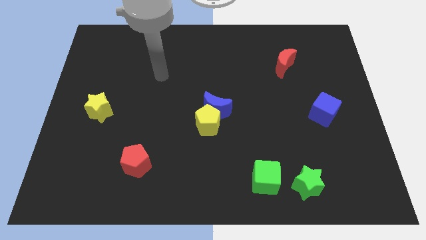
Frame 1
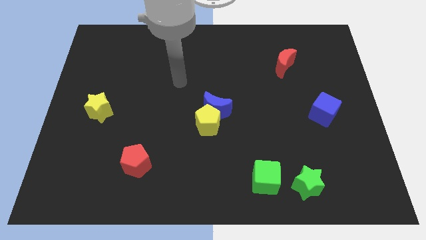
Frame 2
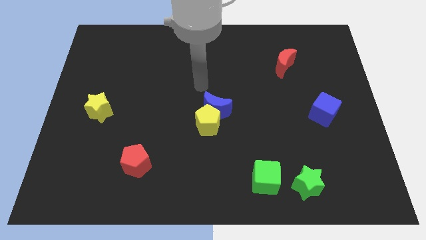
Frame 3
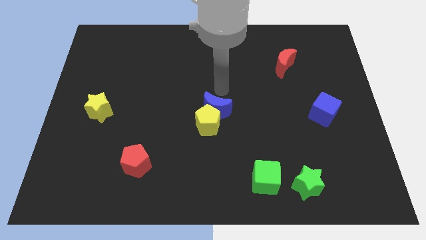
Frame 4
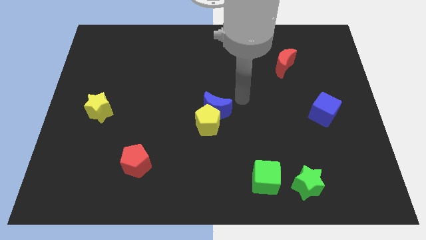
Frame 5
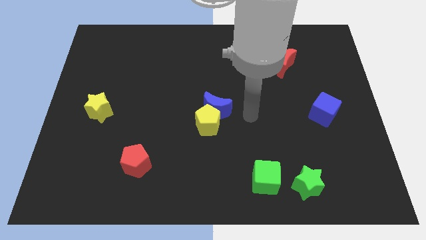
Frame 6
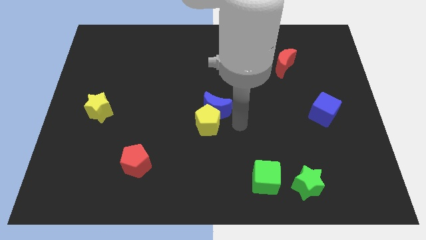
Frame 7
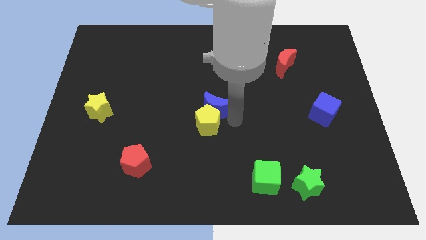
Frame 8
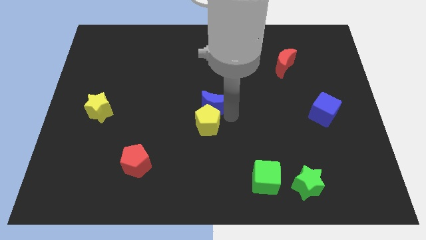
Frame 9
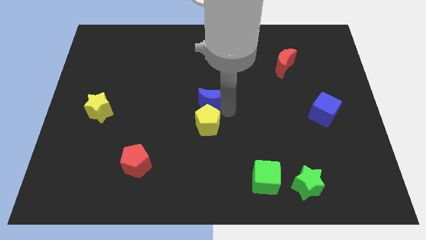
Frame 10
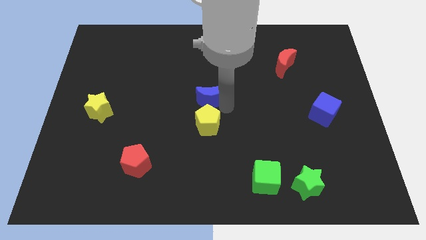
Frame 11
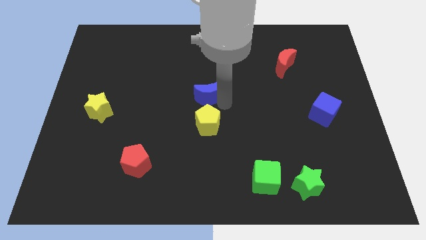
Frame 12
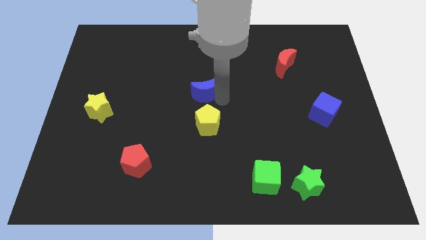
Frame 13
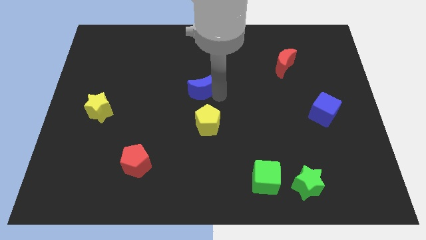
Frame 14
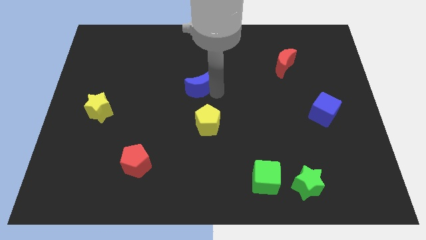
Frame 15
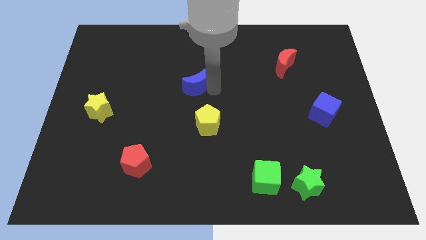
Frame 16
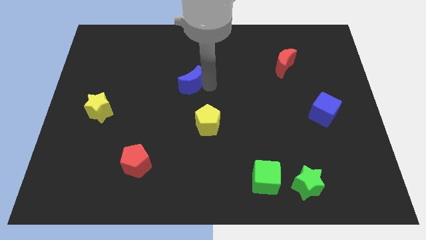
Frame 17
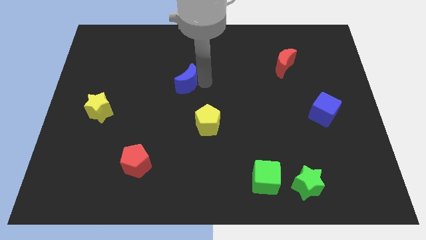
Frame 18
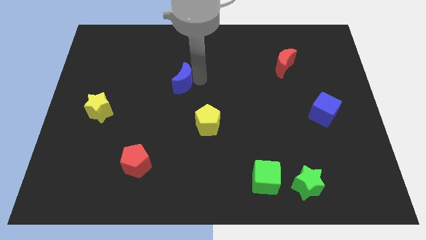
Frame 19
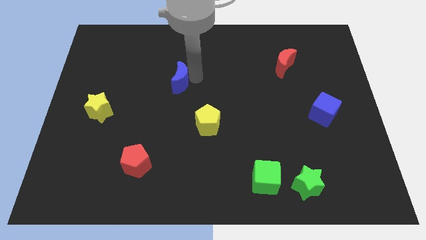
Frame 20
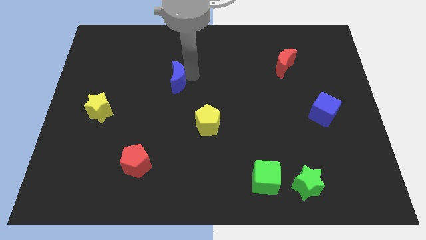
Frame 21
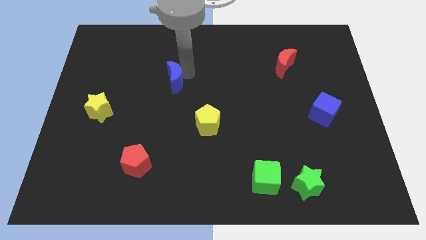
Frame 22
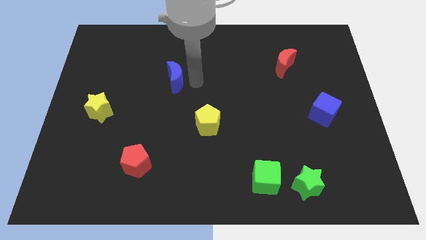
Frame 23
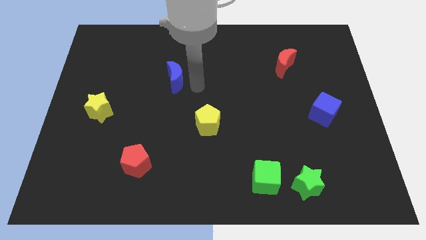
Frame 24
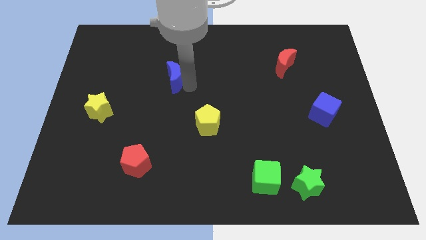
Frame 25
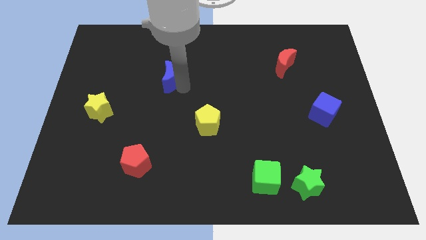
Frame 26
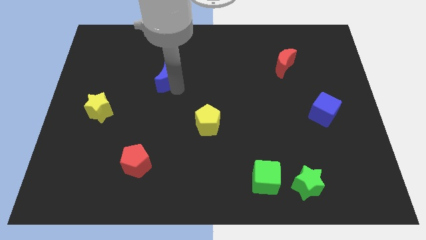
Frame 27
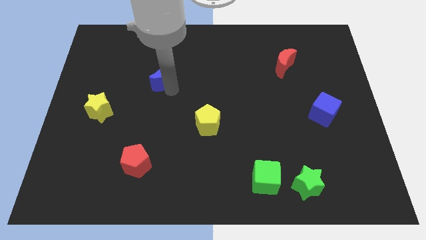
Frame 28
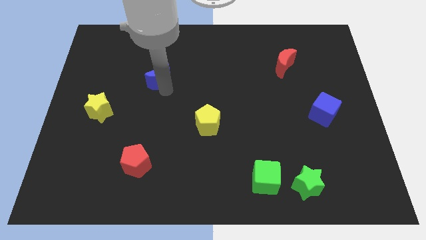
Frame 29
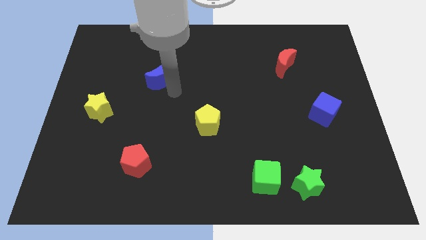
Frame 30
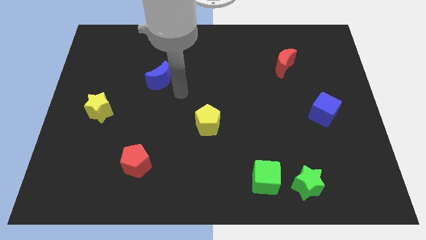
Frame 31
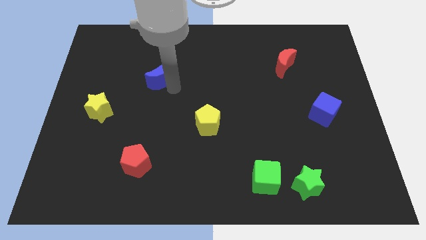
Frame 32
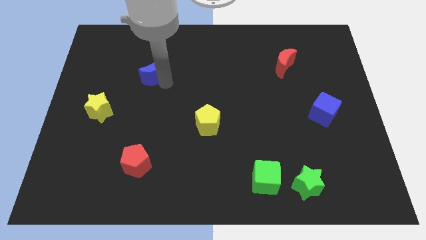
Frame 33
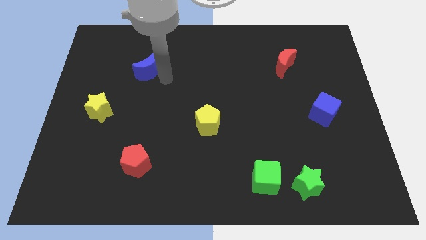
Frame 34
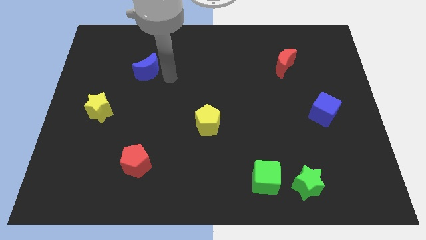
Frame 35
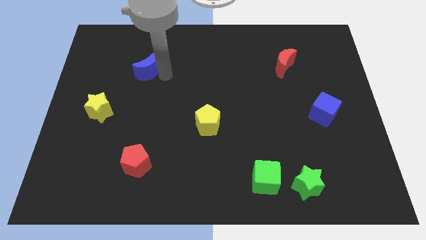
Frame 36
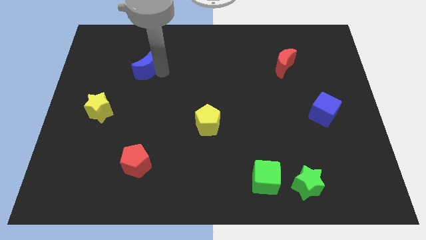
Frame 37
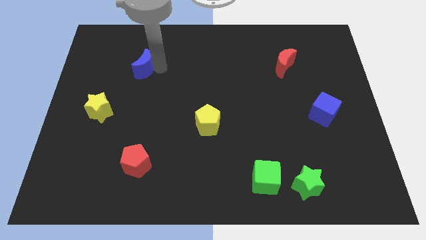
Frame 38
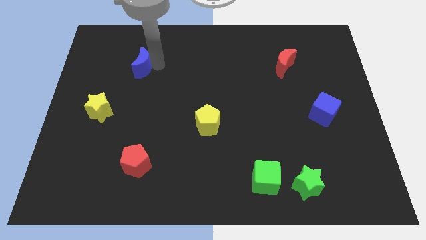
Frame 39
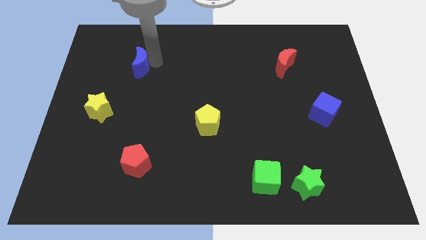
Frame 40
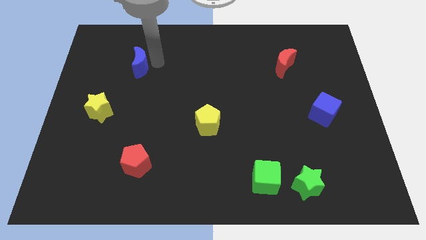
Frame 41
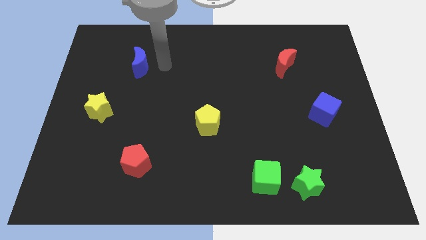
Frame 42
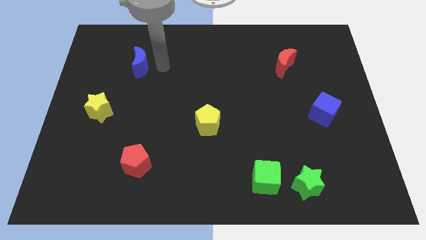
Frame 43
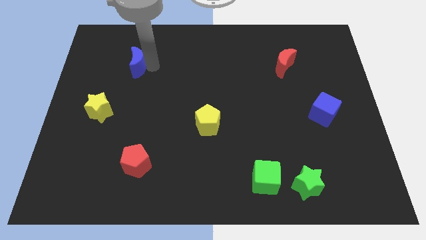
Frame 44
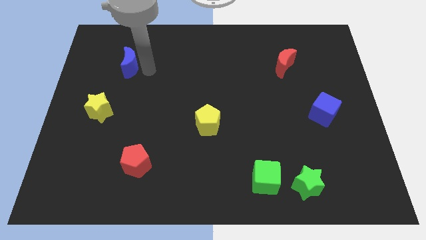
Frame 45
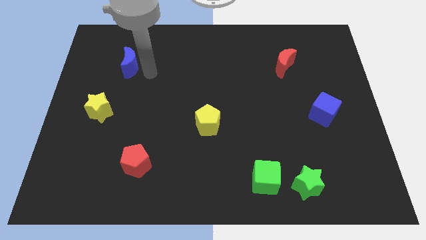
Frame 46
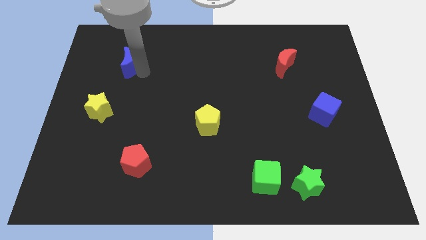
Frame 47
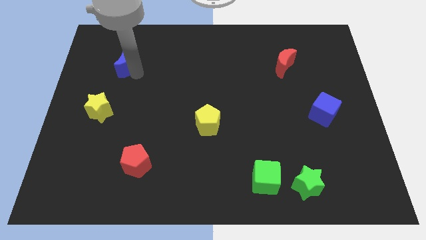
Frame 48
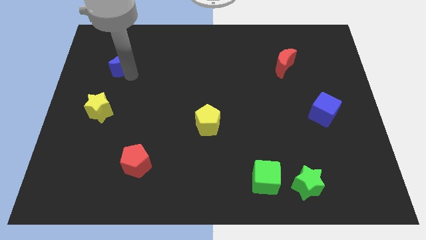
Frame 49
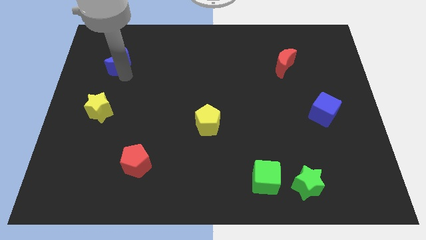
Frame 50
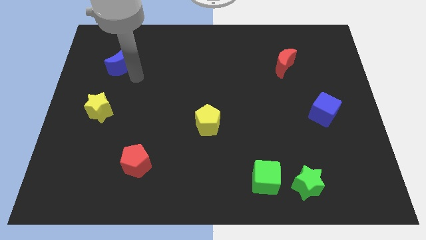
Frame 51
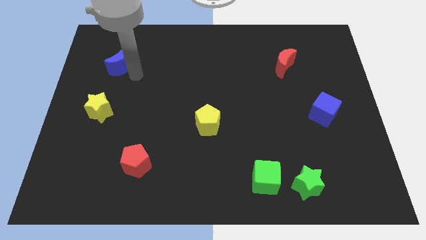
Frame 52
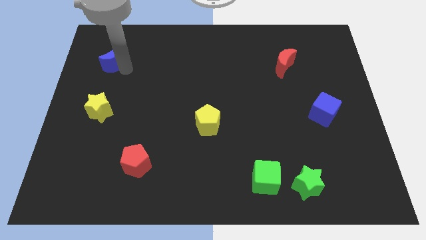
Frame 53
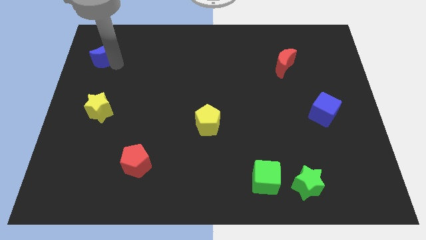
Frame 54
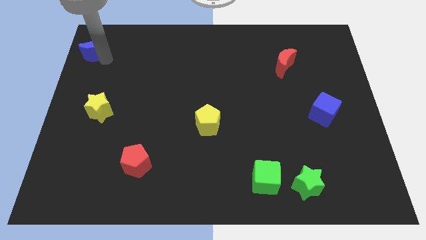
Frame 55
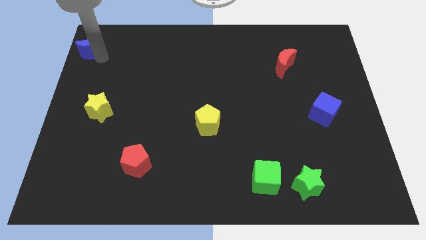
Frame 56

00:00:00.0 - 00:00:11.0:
put the blue moon to the top left of the board

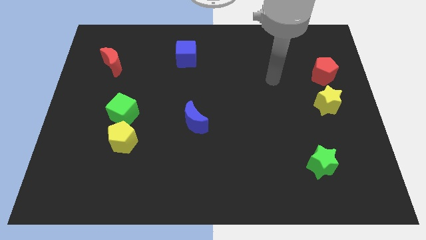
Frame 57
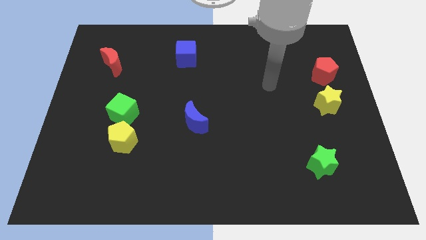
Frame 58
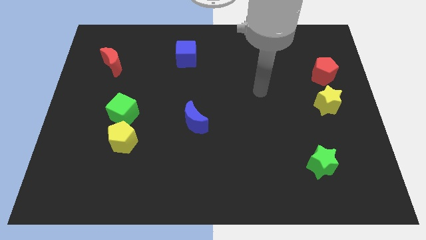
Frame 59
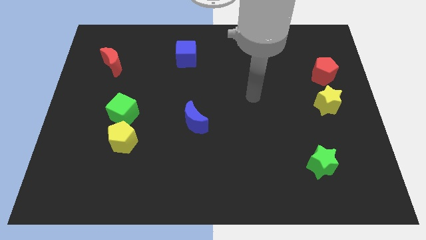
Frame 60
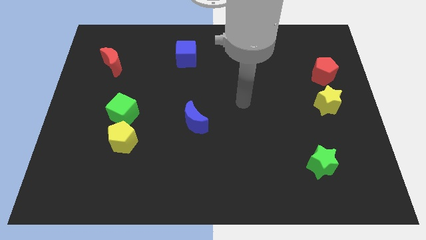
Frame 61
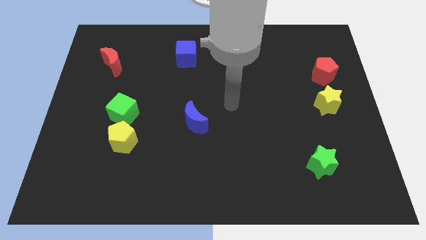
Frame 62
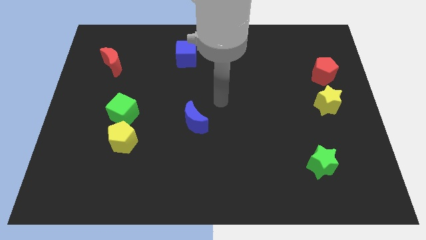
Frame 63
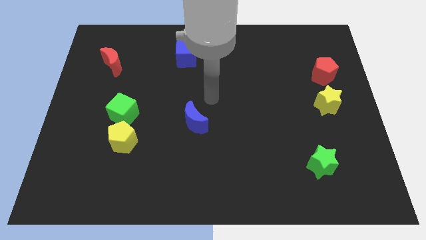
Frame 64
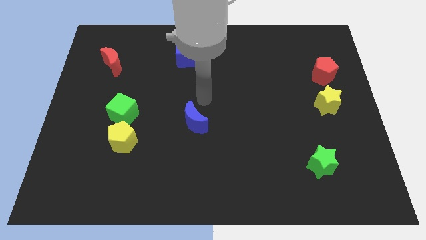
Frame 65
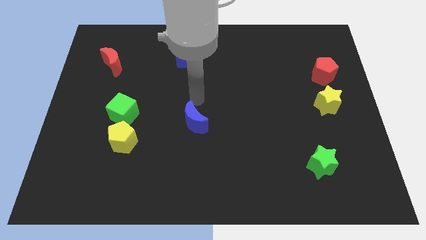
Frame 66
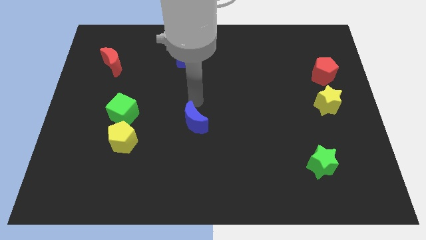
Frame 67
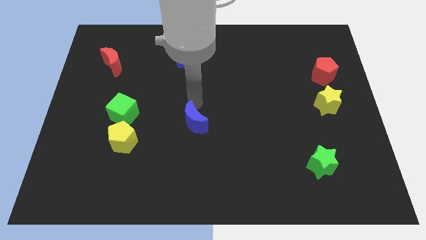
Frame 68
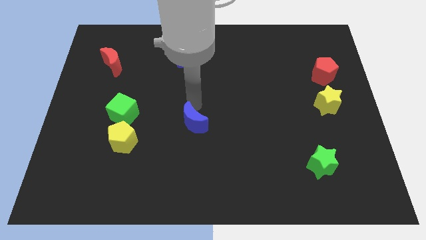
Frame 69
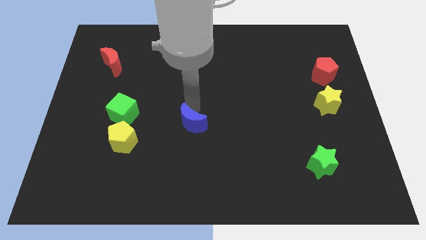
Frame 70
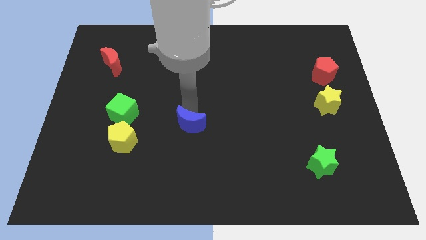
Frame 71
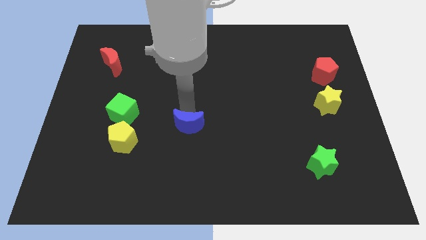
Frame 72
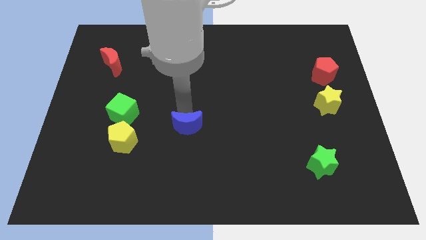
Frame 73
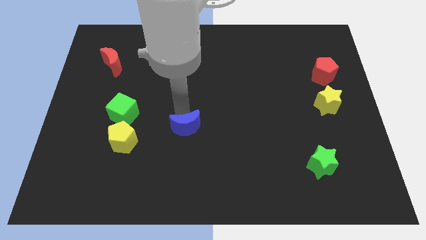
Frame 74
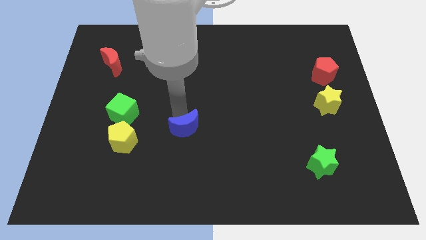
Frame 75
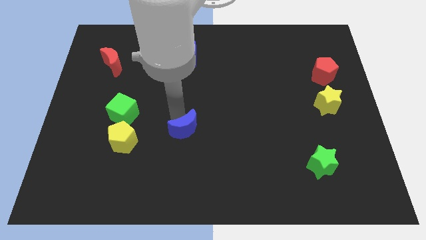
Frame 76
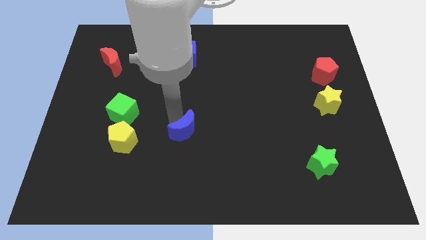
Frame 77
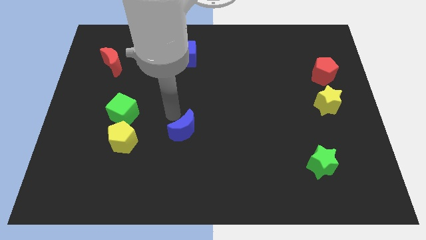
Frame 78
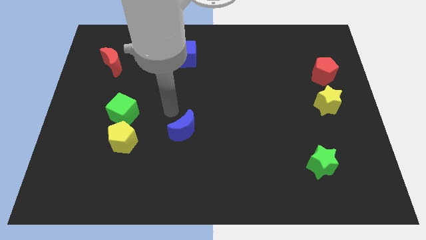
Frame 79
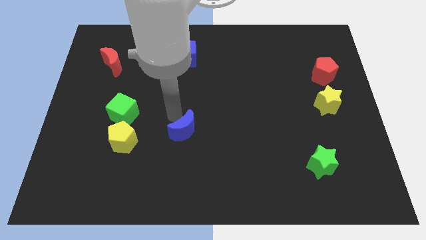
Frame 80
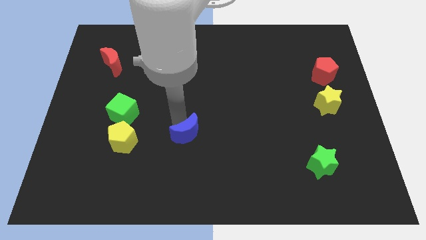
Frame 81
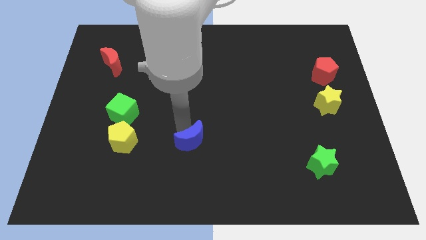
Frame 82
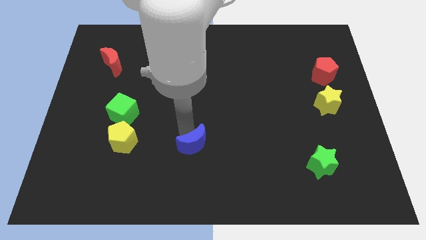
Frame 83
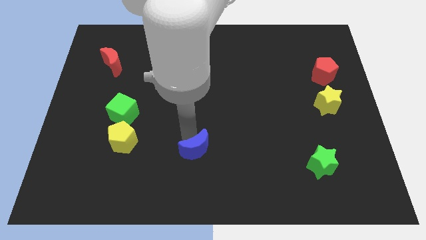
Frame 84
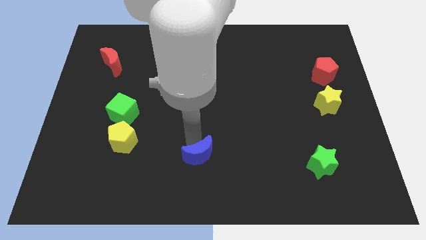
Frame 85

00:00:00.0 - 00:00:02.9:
put the blue moon to the bottom side
